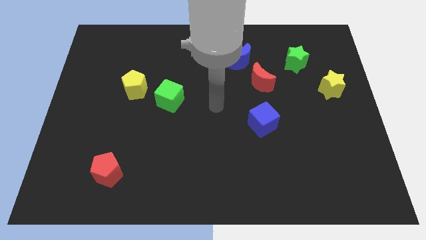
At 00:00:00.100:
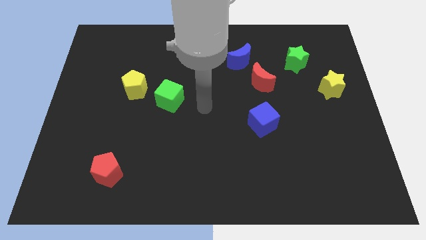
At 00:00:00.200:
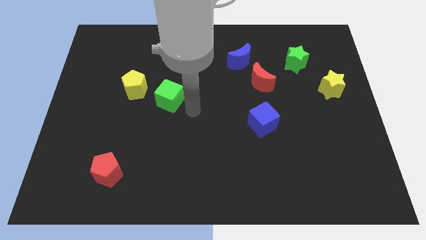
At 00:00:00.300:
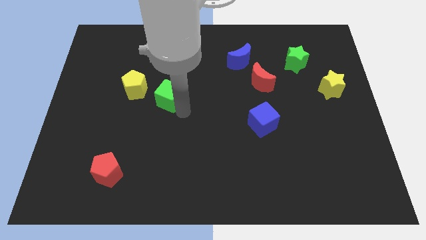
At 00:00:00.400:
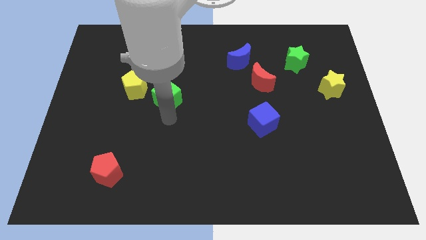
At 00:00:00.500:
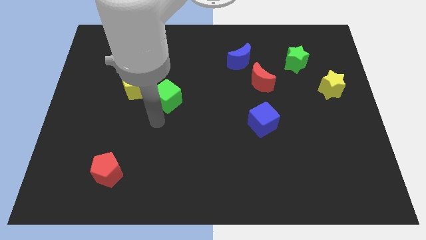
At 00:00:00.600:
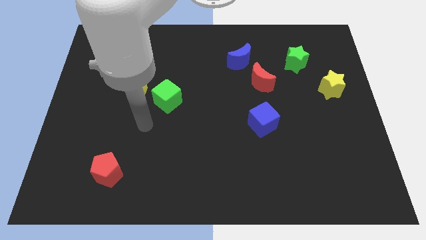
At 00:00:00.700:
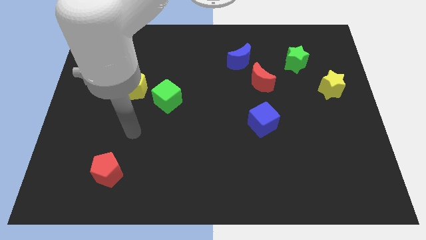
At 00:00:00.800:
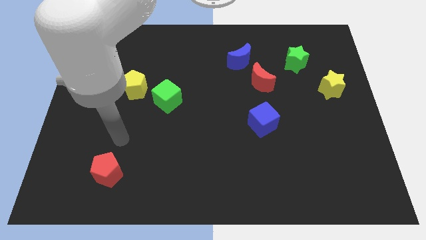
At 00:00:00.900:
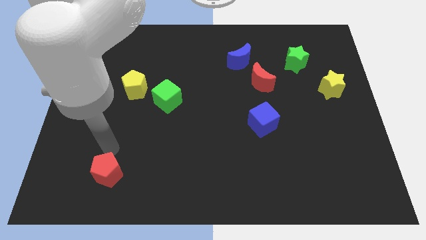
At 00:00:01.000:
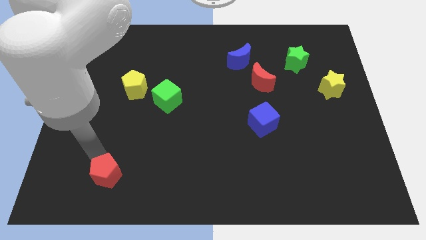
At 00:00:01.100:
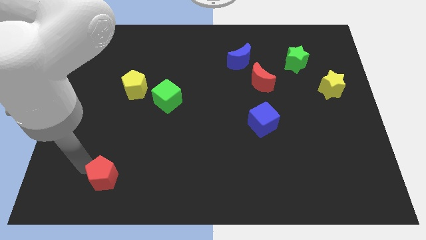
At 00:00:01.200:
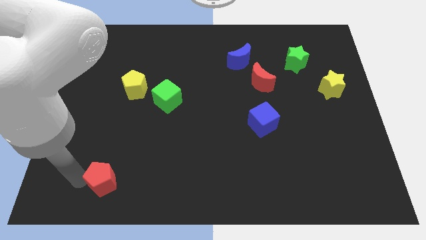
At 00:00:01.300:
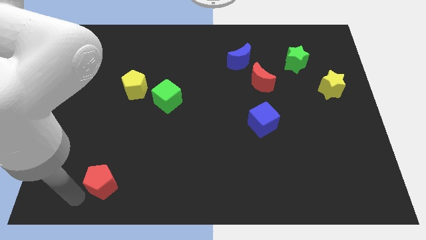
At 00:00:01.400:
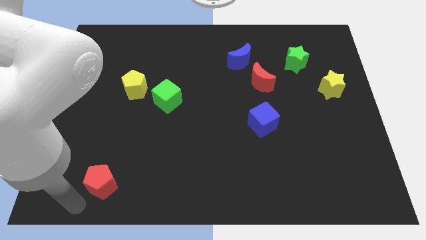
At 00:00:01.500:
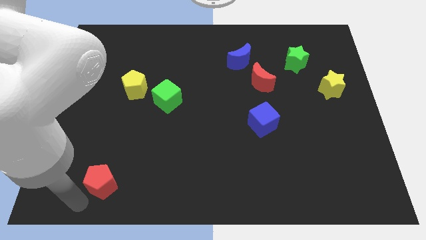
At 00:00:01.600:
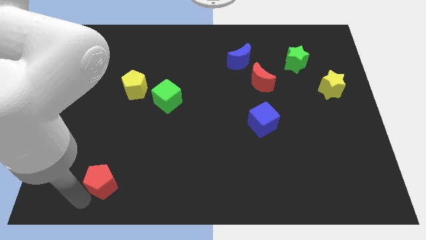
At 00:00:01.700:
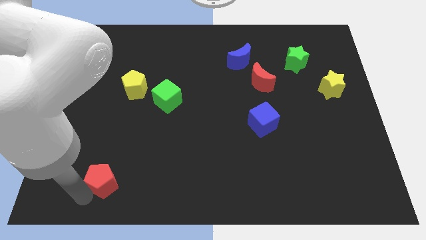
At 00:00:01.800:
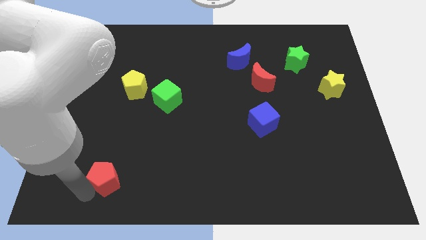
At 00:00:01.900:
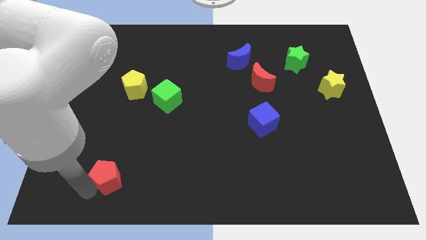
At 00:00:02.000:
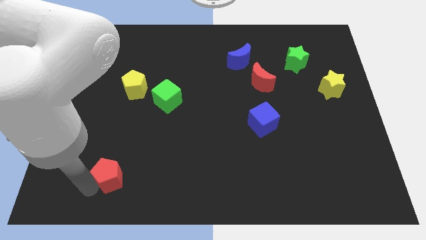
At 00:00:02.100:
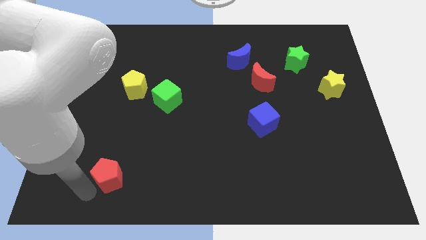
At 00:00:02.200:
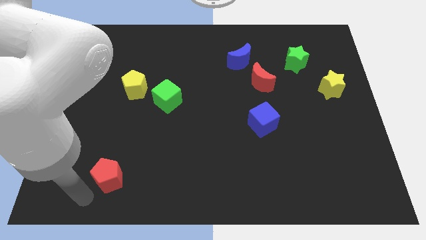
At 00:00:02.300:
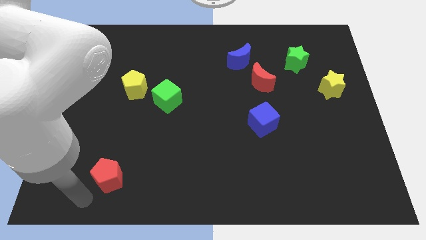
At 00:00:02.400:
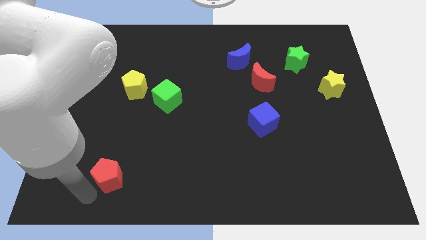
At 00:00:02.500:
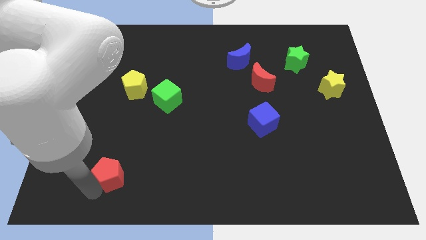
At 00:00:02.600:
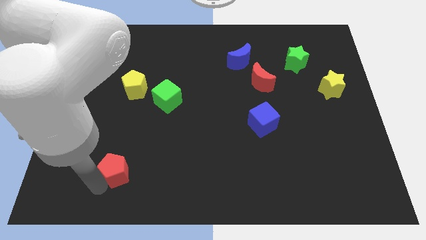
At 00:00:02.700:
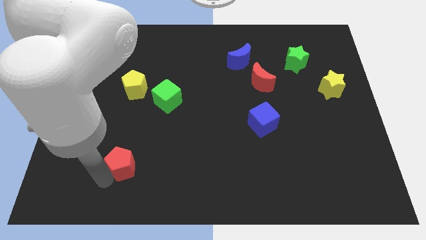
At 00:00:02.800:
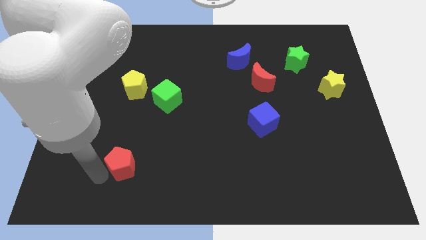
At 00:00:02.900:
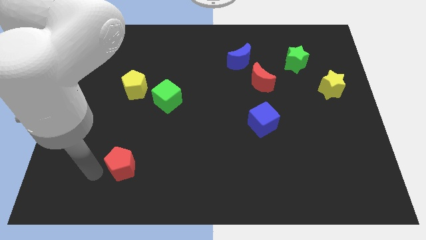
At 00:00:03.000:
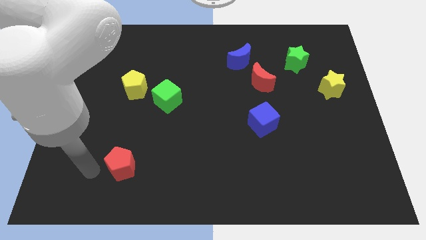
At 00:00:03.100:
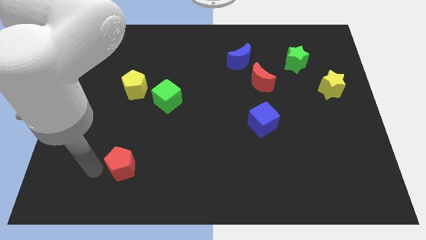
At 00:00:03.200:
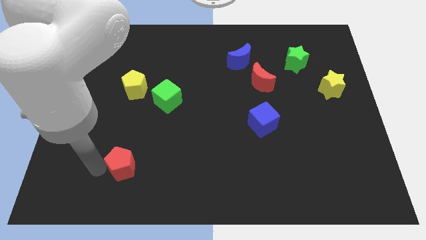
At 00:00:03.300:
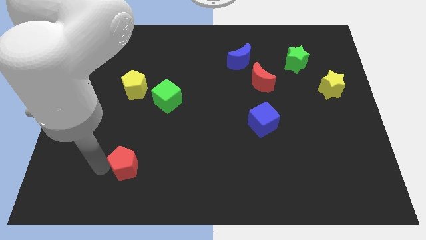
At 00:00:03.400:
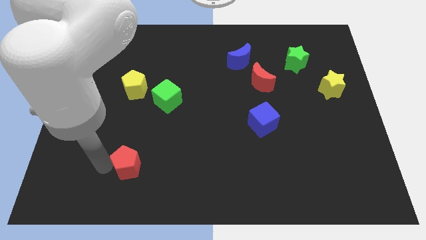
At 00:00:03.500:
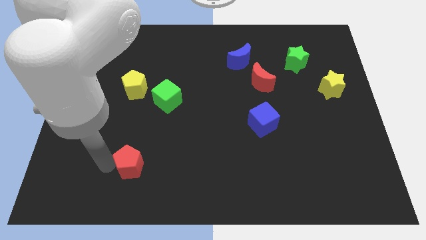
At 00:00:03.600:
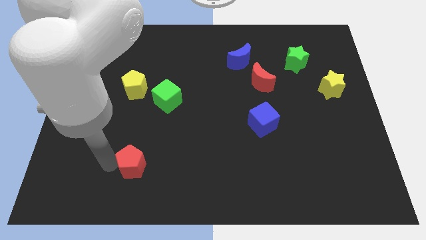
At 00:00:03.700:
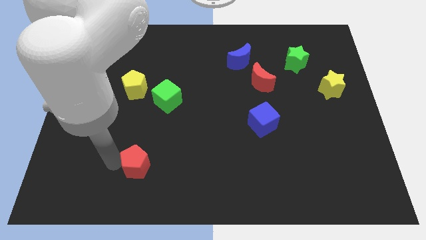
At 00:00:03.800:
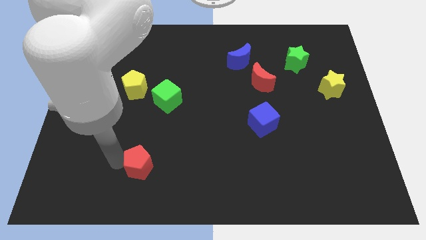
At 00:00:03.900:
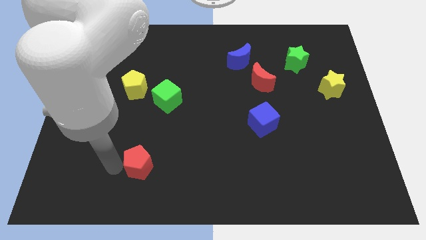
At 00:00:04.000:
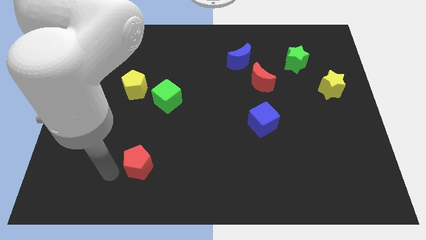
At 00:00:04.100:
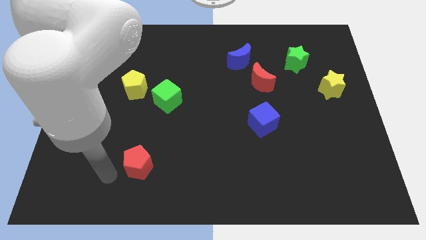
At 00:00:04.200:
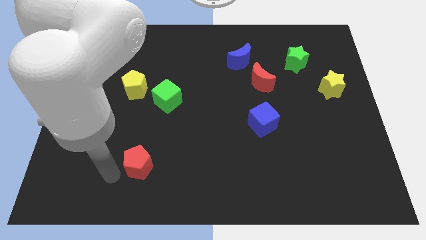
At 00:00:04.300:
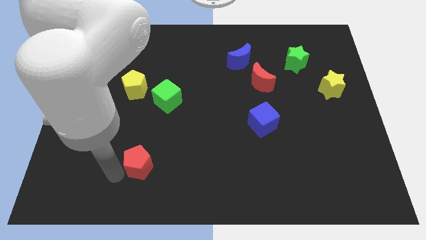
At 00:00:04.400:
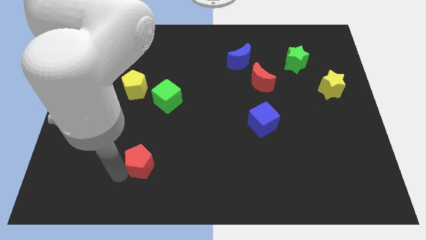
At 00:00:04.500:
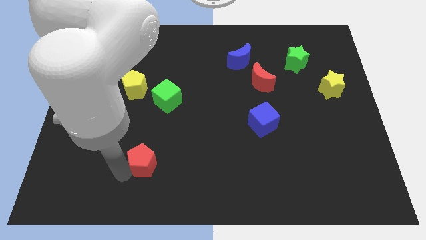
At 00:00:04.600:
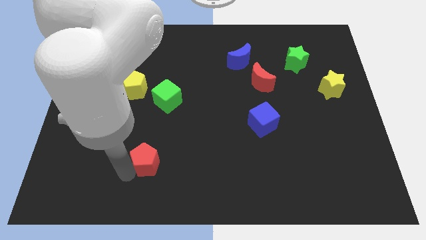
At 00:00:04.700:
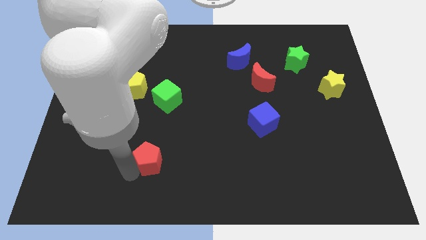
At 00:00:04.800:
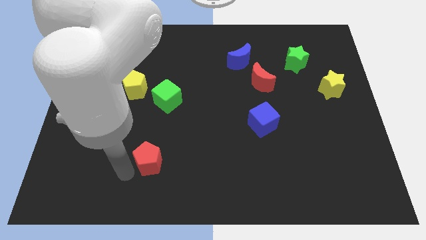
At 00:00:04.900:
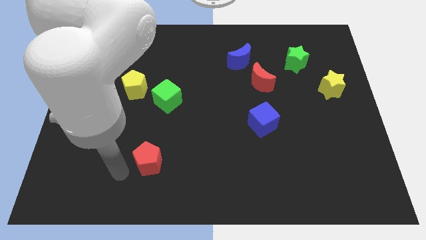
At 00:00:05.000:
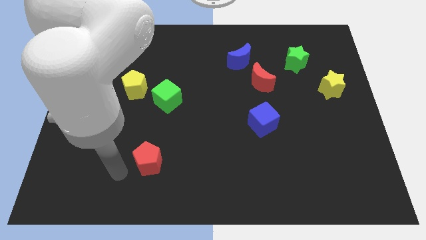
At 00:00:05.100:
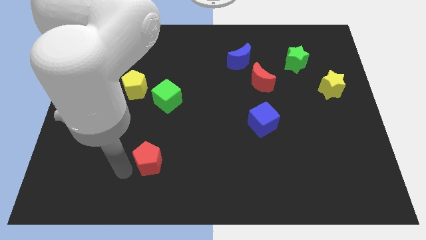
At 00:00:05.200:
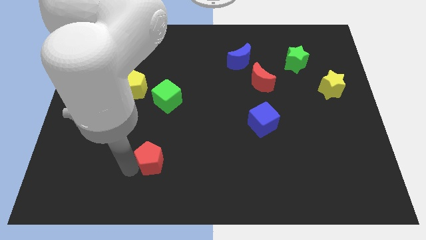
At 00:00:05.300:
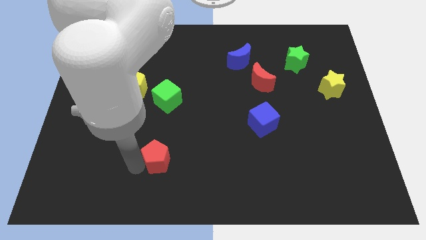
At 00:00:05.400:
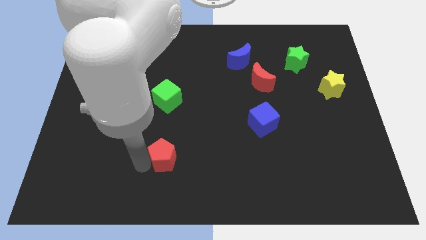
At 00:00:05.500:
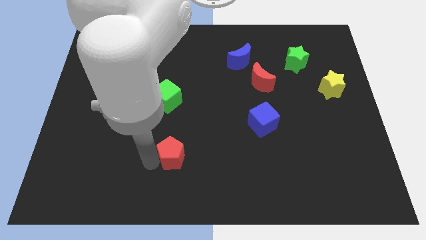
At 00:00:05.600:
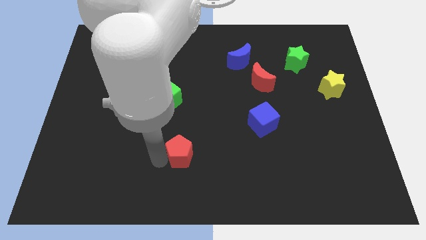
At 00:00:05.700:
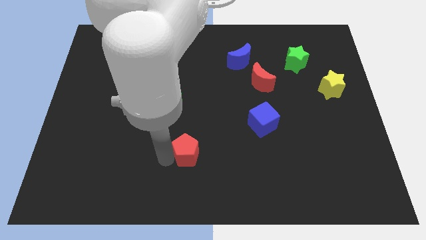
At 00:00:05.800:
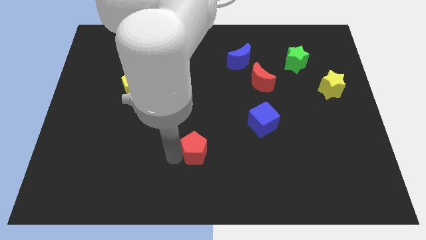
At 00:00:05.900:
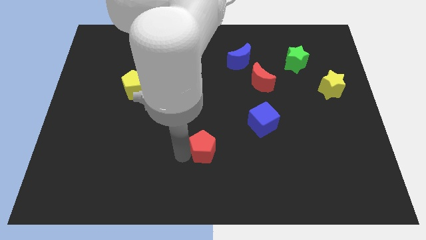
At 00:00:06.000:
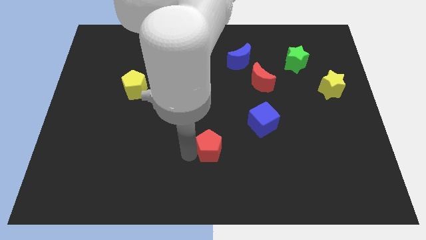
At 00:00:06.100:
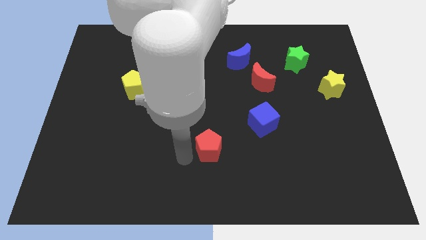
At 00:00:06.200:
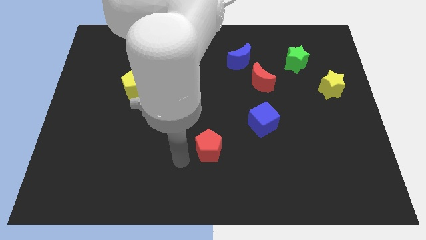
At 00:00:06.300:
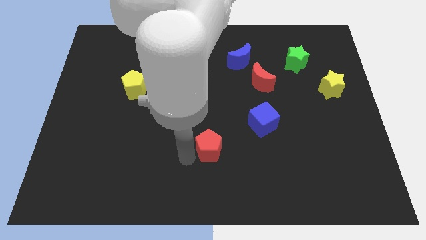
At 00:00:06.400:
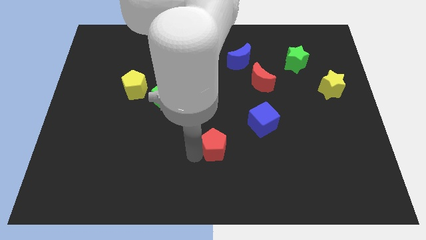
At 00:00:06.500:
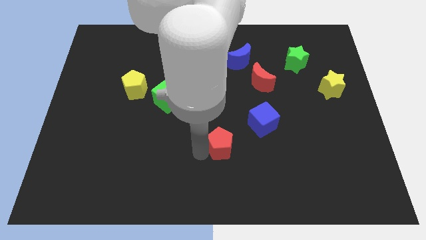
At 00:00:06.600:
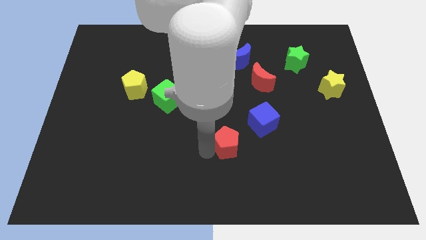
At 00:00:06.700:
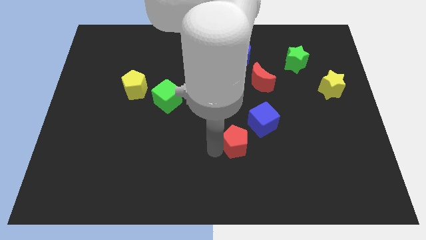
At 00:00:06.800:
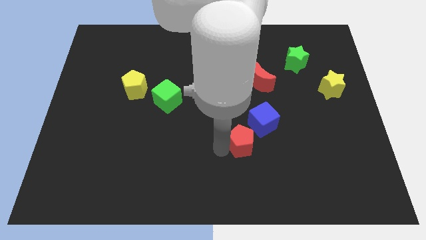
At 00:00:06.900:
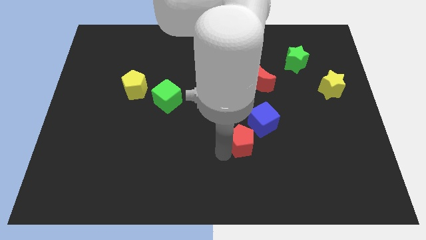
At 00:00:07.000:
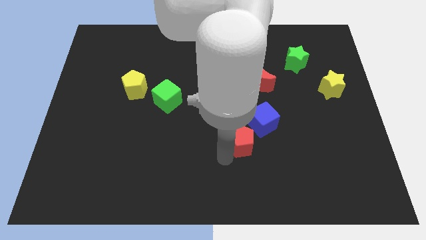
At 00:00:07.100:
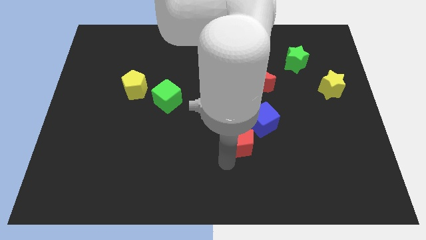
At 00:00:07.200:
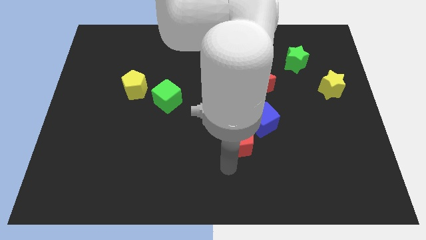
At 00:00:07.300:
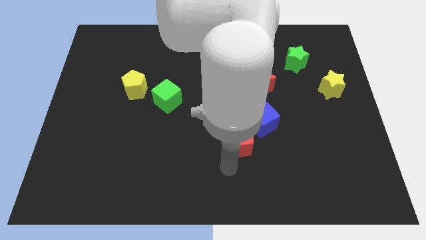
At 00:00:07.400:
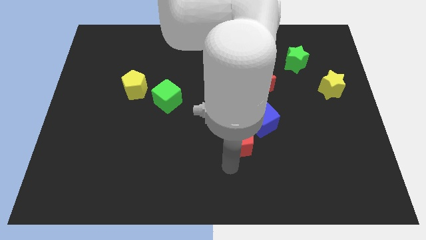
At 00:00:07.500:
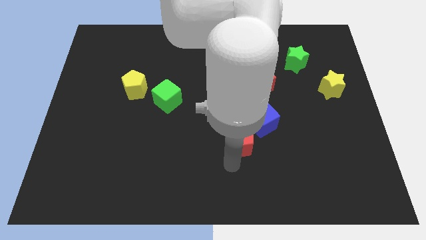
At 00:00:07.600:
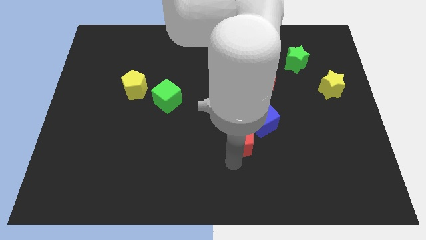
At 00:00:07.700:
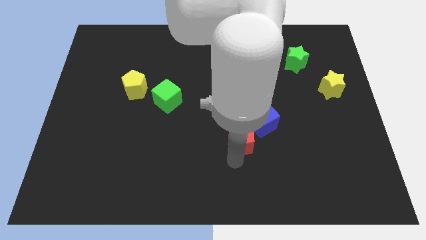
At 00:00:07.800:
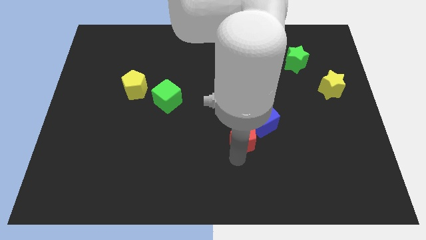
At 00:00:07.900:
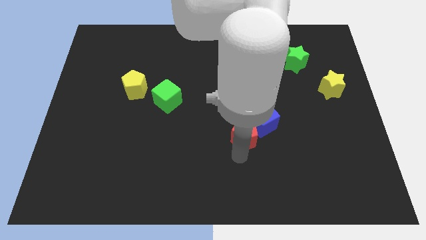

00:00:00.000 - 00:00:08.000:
push the red pentagon to the blue cube
